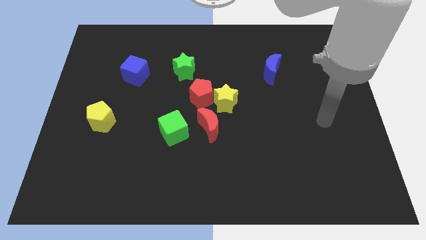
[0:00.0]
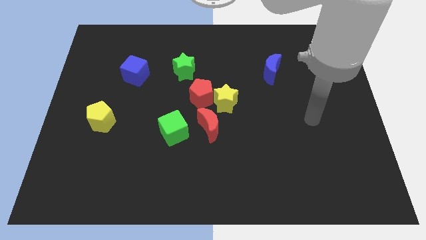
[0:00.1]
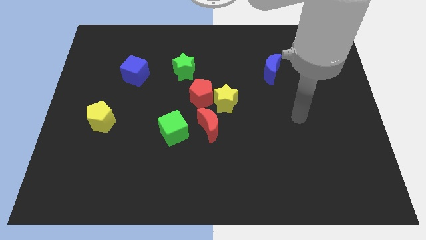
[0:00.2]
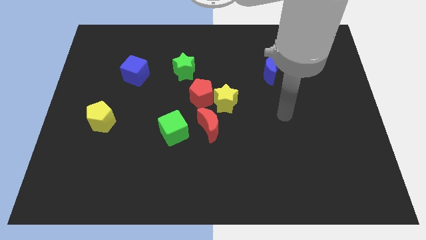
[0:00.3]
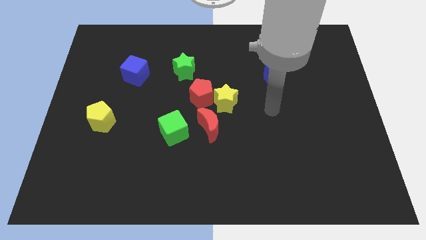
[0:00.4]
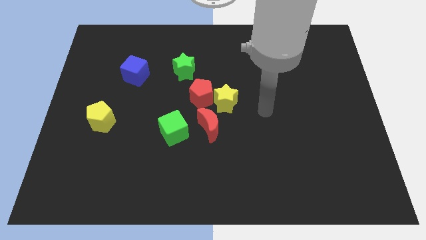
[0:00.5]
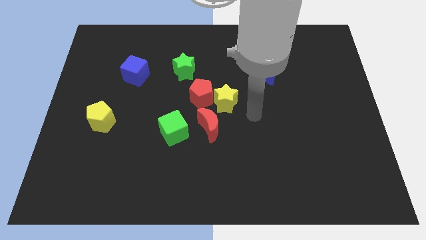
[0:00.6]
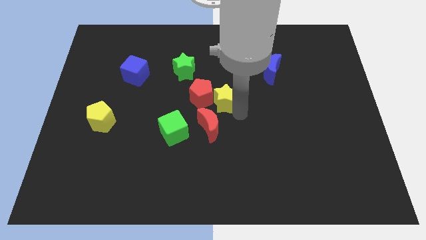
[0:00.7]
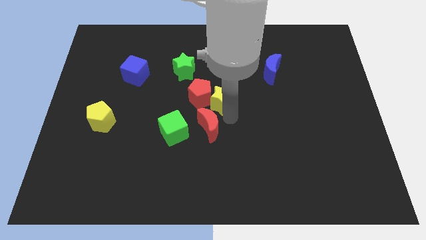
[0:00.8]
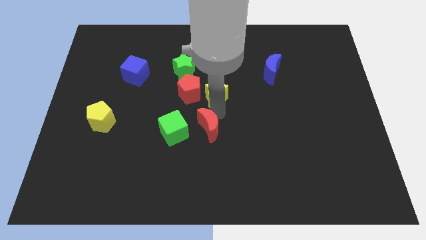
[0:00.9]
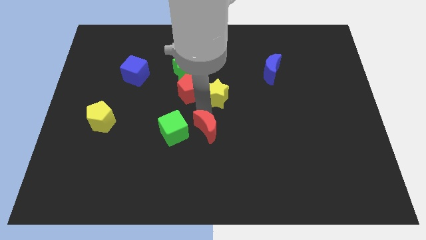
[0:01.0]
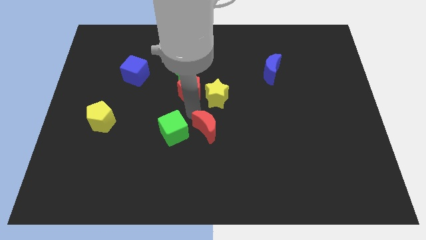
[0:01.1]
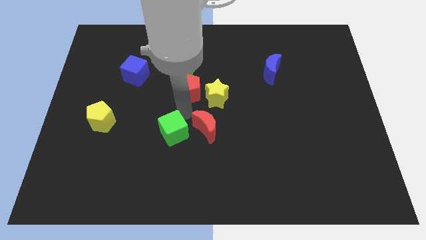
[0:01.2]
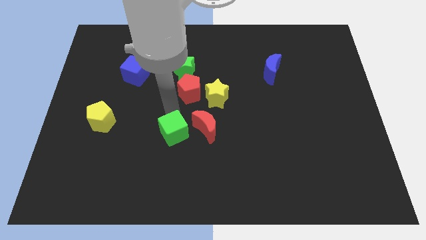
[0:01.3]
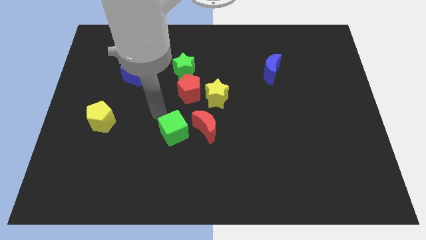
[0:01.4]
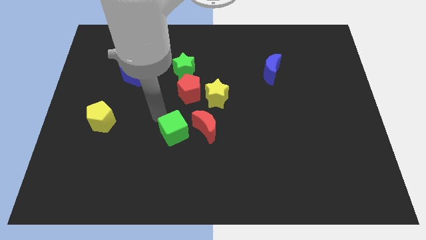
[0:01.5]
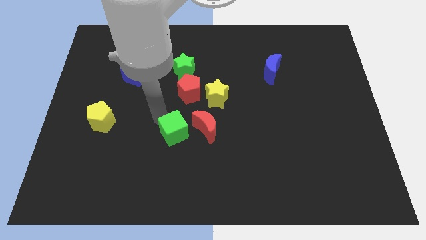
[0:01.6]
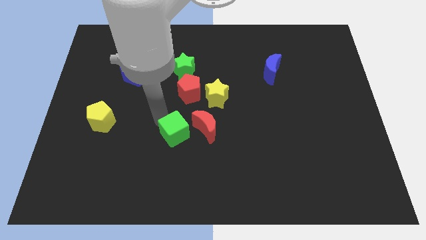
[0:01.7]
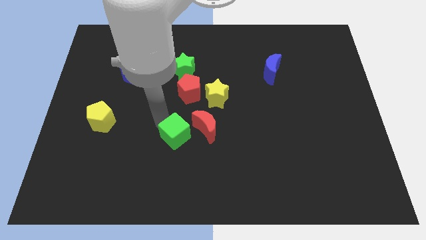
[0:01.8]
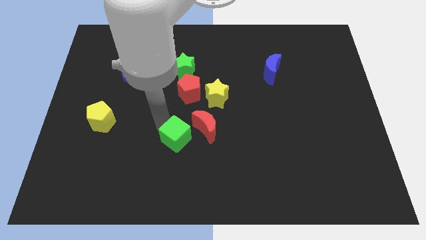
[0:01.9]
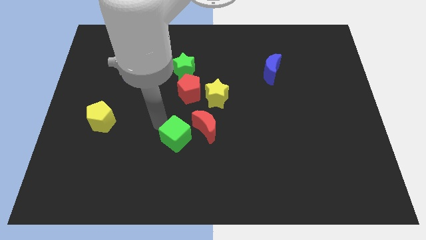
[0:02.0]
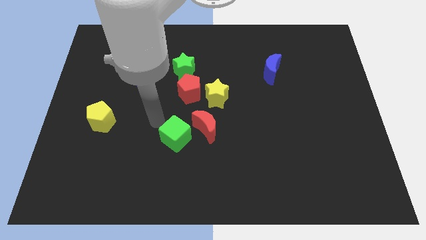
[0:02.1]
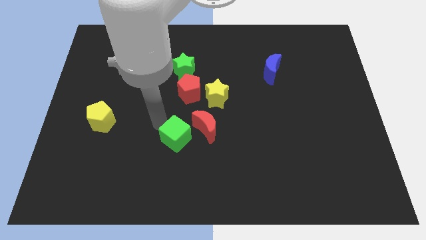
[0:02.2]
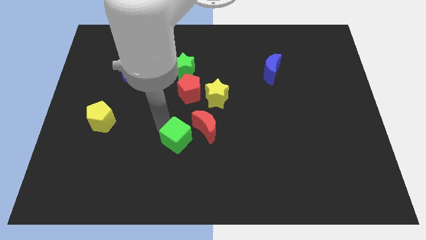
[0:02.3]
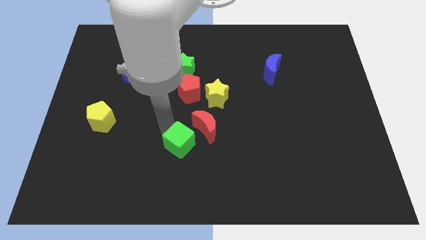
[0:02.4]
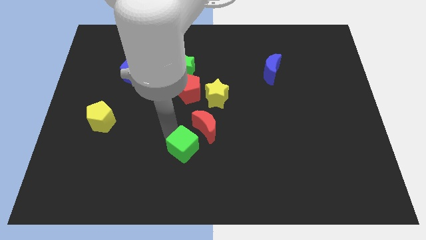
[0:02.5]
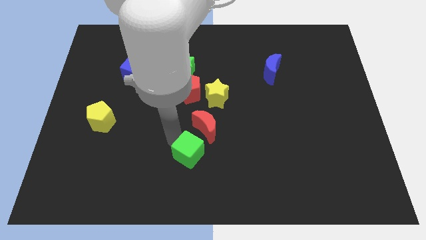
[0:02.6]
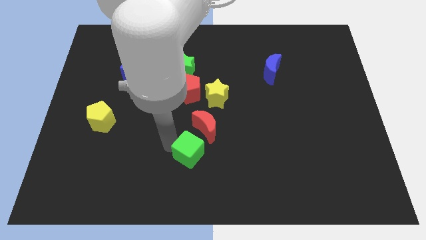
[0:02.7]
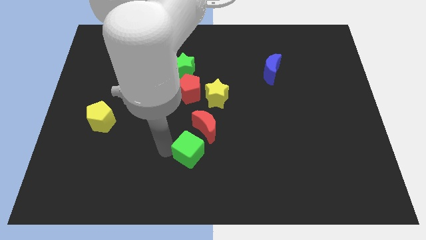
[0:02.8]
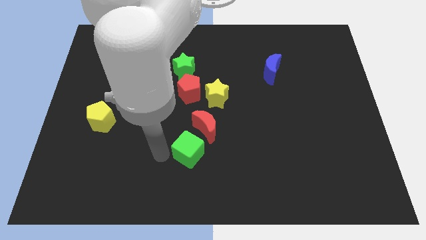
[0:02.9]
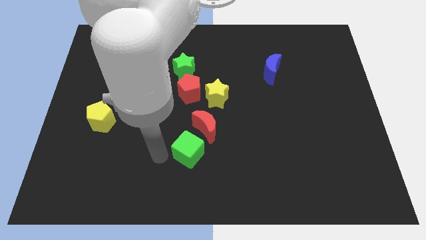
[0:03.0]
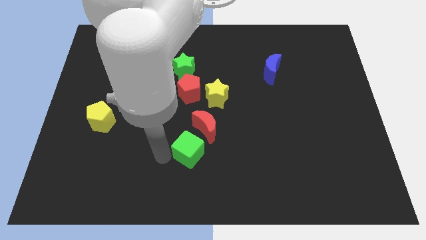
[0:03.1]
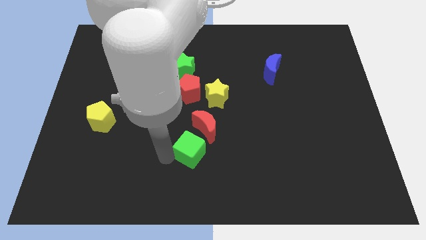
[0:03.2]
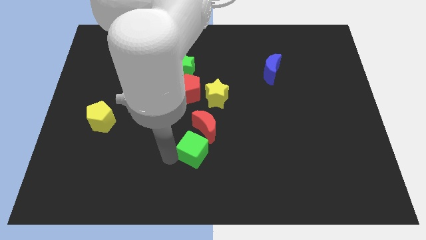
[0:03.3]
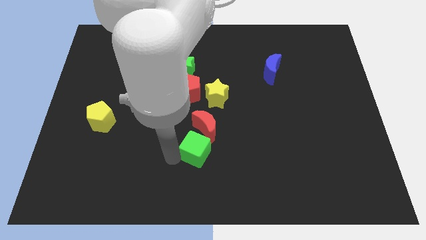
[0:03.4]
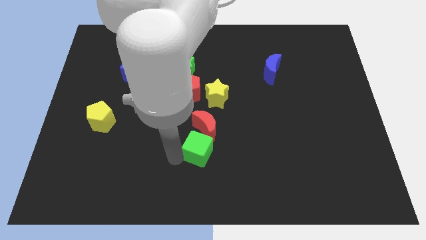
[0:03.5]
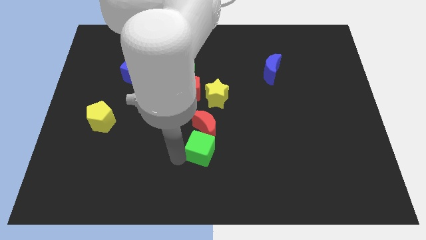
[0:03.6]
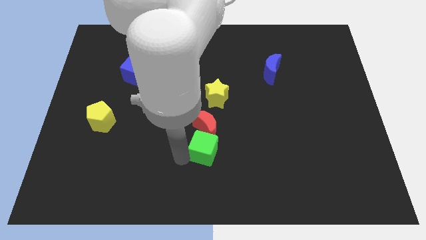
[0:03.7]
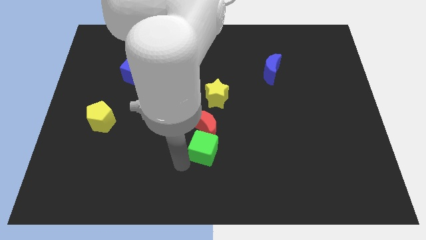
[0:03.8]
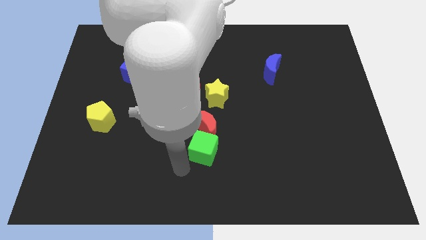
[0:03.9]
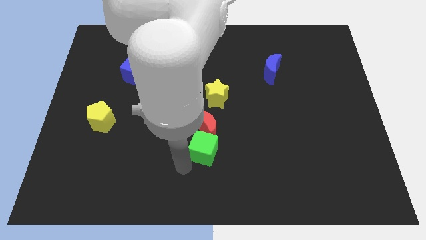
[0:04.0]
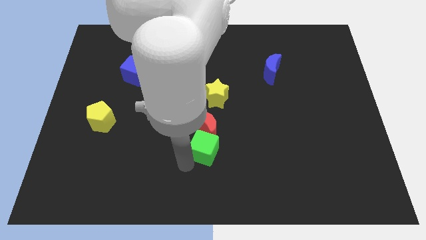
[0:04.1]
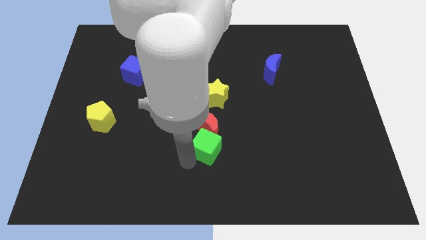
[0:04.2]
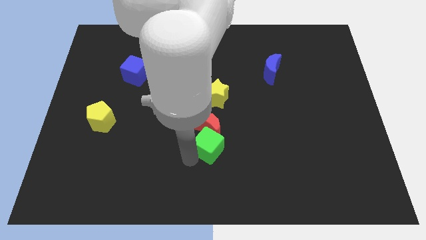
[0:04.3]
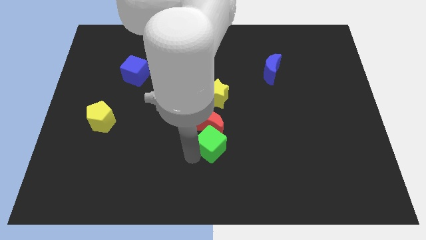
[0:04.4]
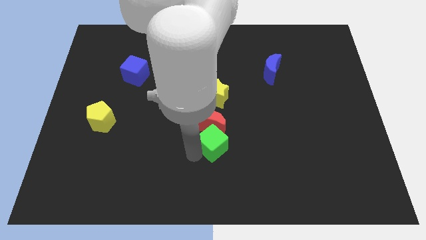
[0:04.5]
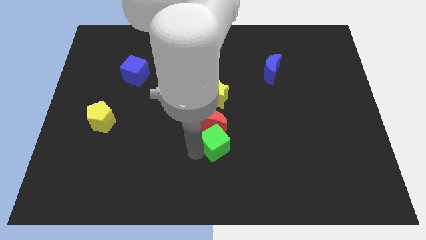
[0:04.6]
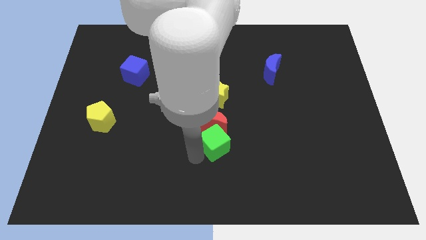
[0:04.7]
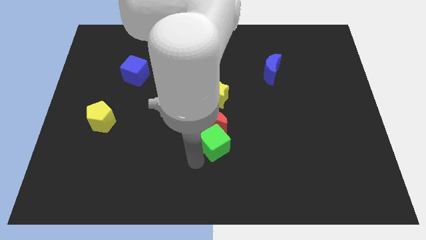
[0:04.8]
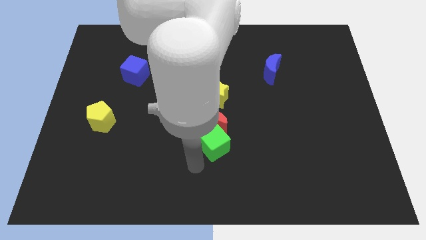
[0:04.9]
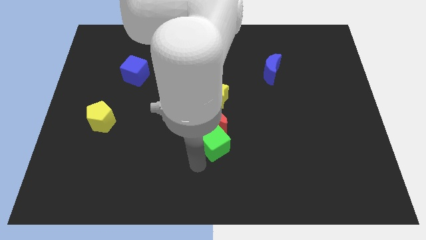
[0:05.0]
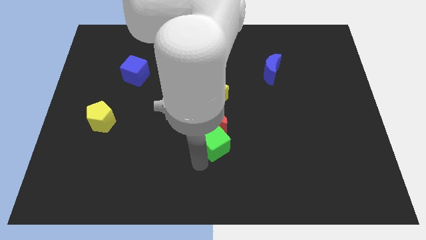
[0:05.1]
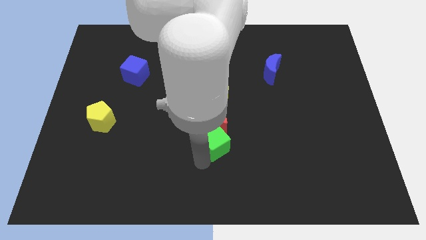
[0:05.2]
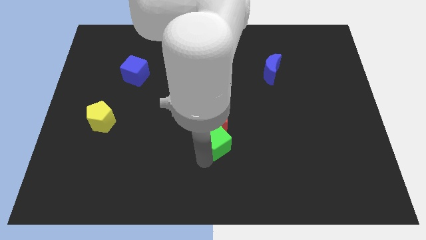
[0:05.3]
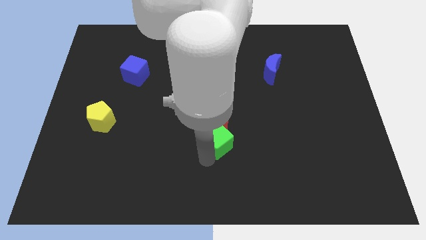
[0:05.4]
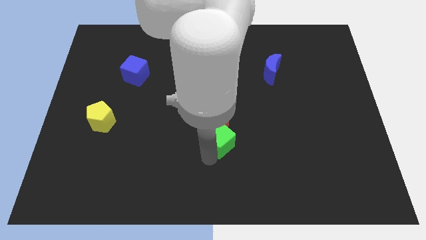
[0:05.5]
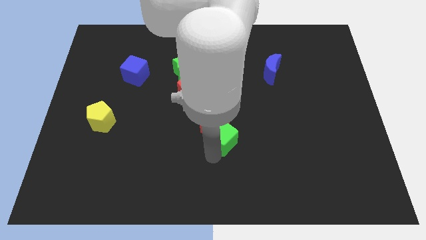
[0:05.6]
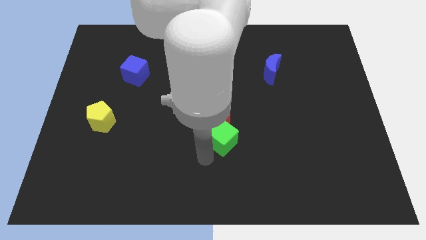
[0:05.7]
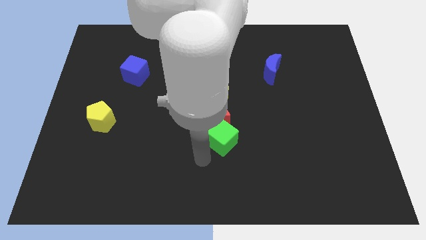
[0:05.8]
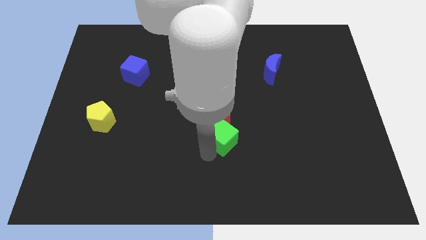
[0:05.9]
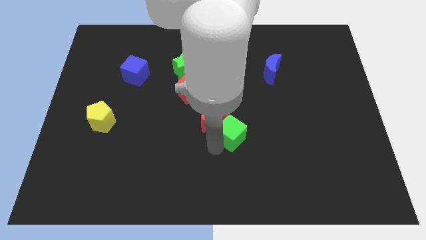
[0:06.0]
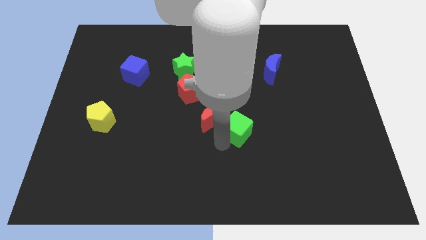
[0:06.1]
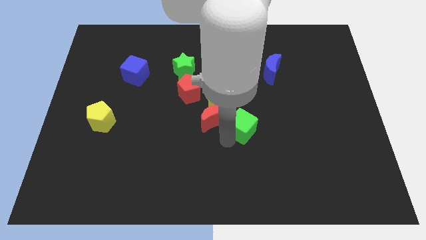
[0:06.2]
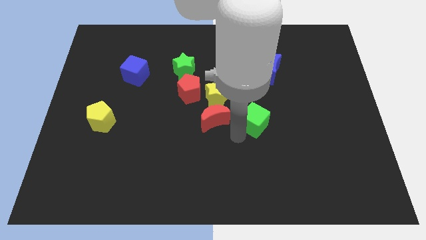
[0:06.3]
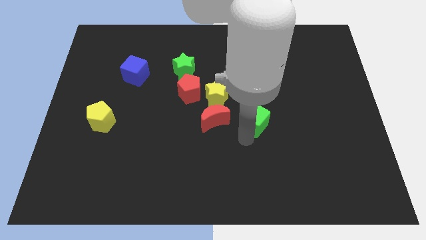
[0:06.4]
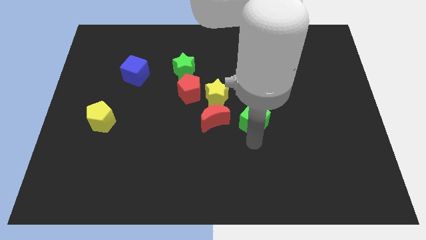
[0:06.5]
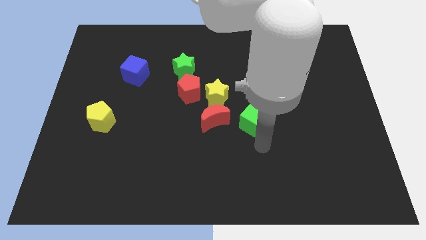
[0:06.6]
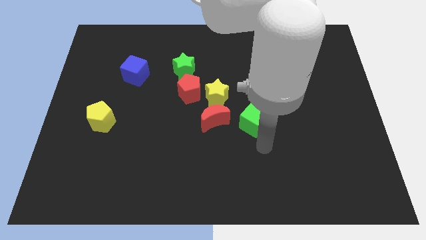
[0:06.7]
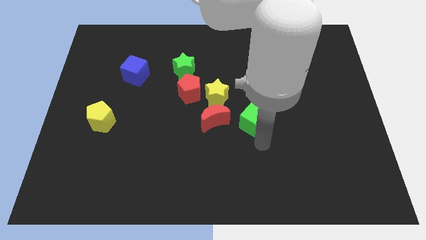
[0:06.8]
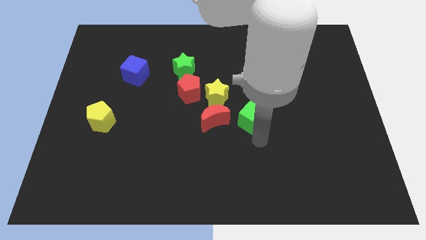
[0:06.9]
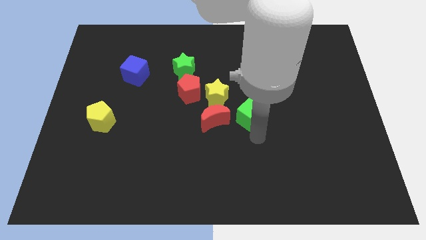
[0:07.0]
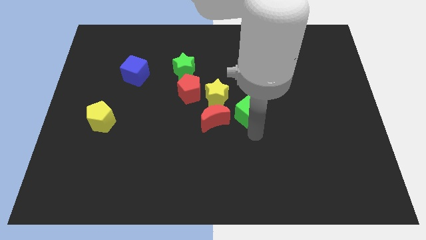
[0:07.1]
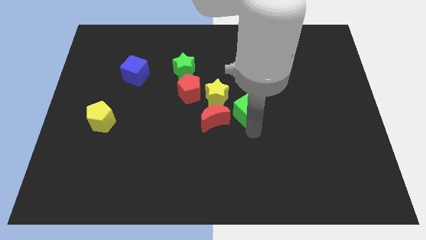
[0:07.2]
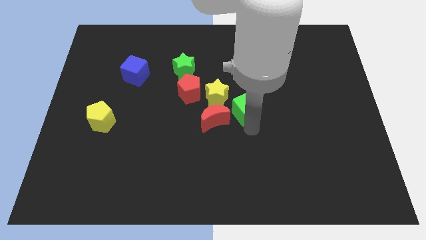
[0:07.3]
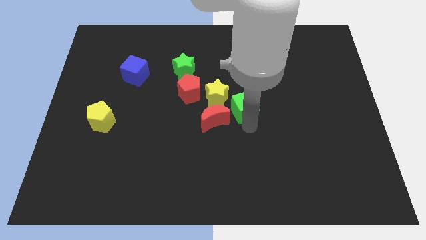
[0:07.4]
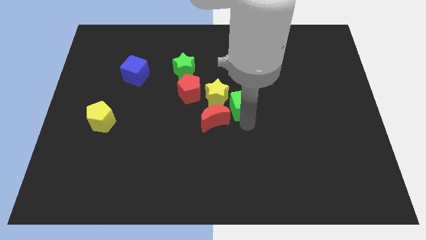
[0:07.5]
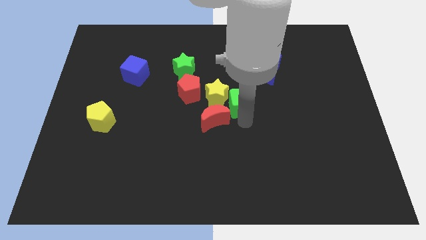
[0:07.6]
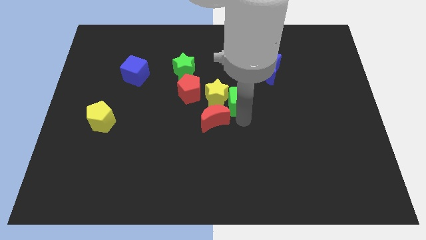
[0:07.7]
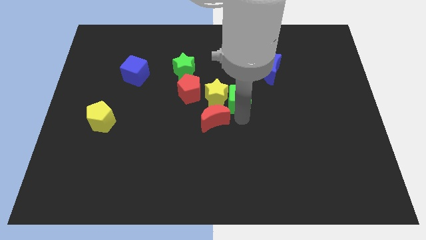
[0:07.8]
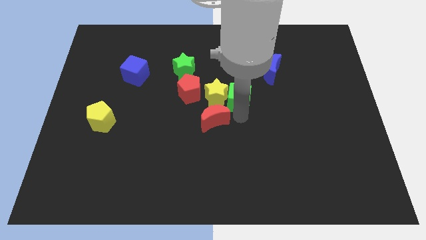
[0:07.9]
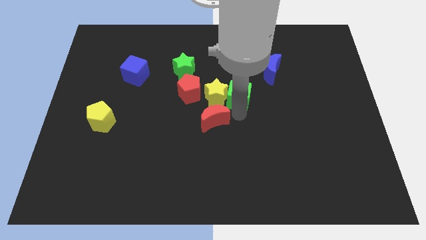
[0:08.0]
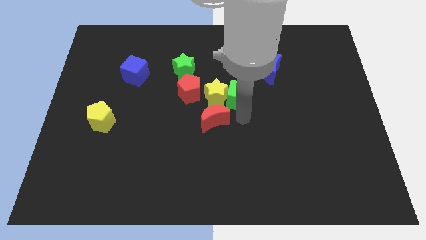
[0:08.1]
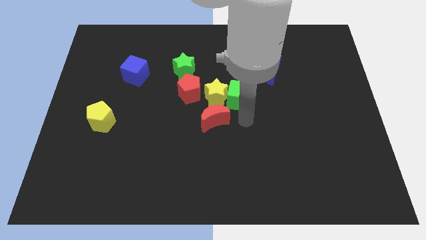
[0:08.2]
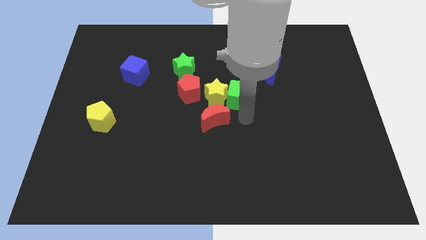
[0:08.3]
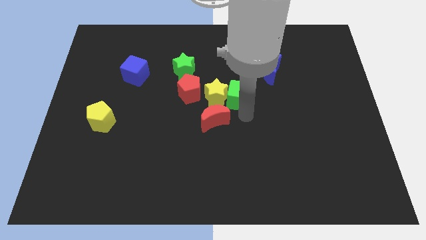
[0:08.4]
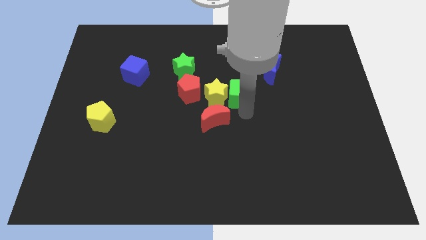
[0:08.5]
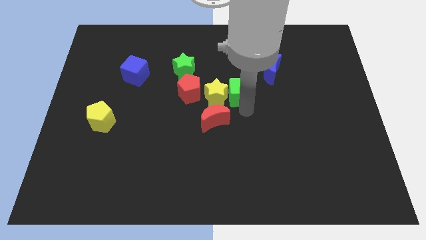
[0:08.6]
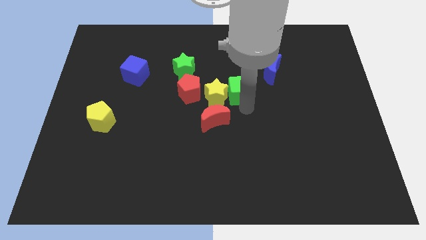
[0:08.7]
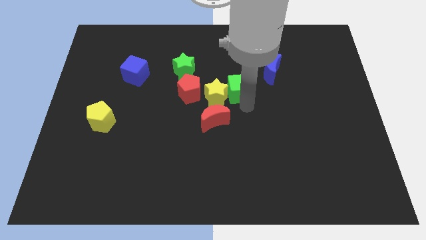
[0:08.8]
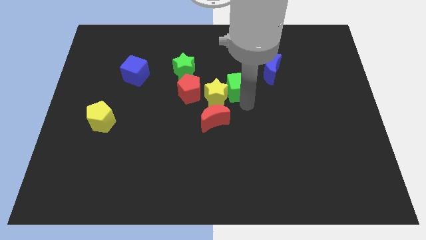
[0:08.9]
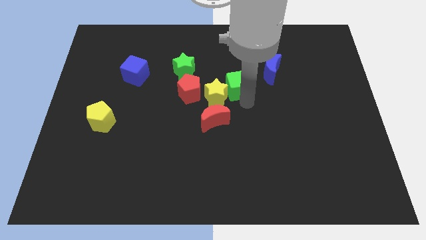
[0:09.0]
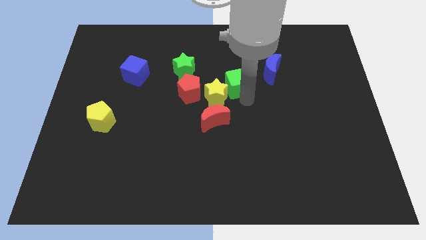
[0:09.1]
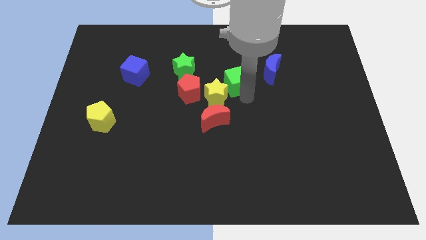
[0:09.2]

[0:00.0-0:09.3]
push the green cube just right of the green star
